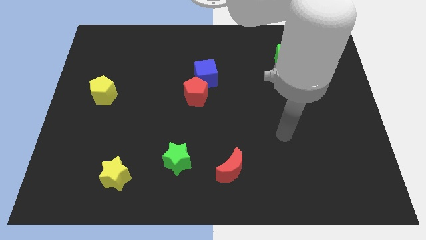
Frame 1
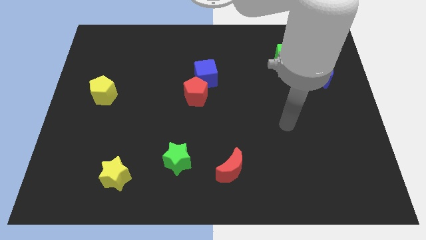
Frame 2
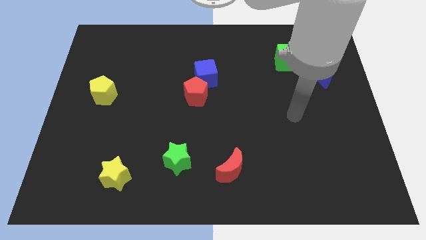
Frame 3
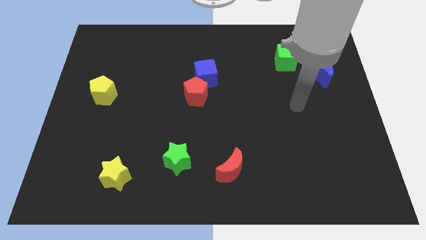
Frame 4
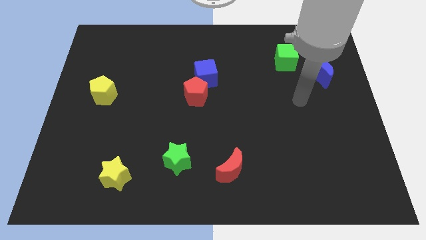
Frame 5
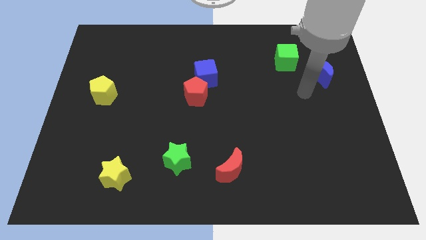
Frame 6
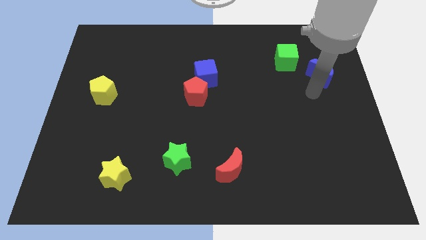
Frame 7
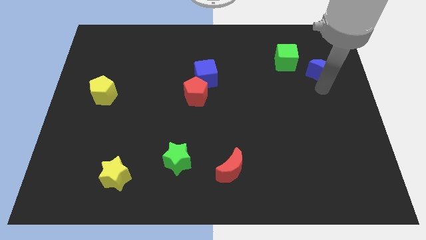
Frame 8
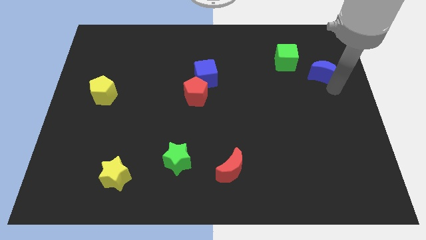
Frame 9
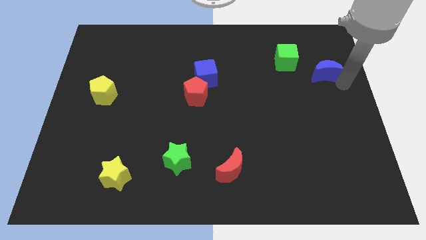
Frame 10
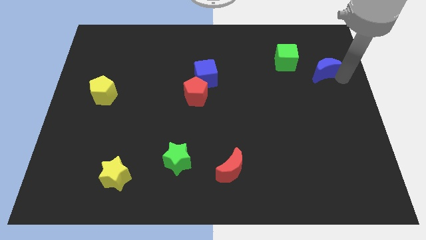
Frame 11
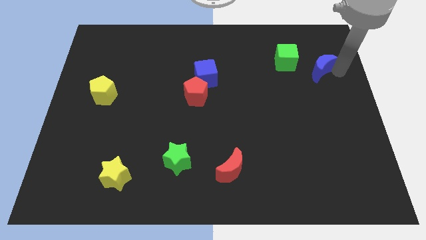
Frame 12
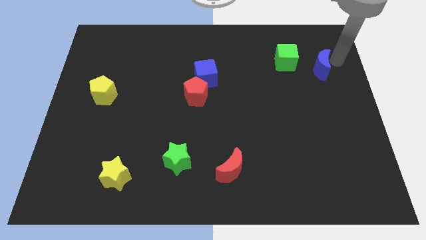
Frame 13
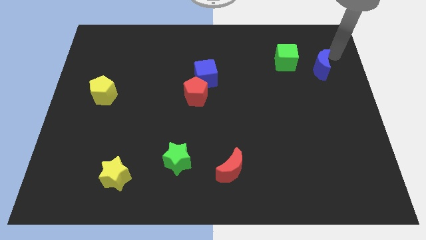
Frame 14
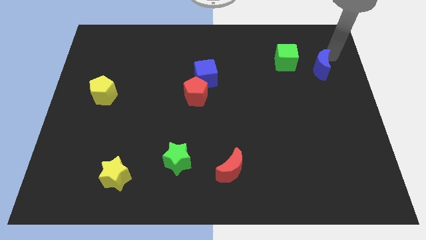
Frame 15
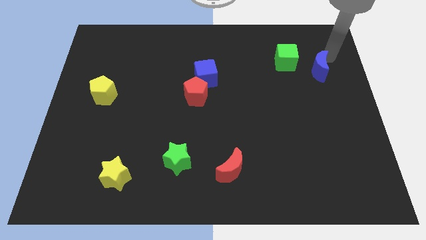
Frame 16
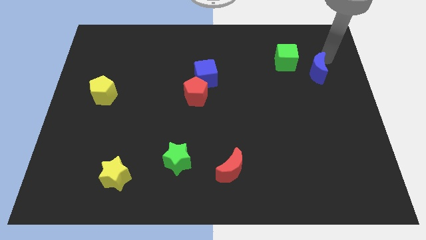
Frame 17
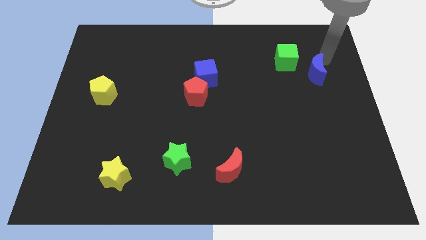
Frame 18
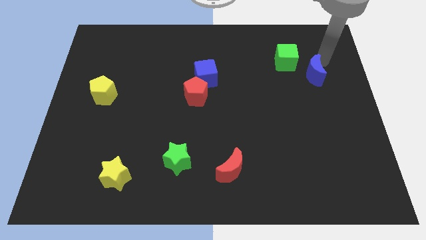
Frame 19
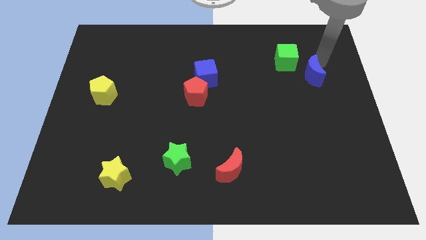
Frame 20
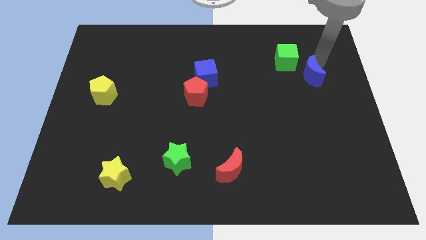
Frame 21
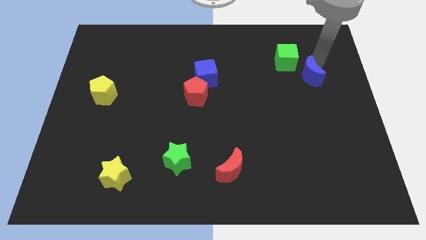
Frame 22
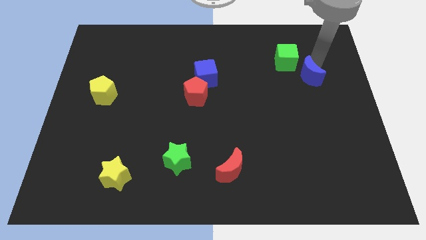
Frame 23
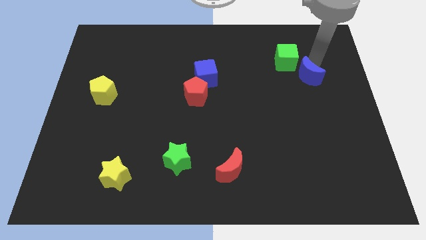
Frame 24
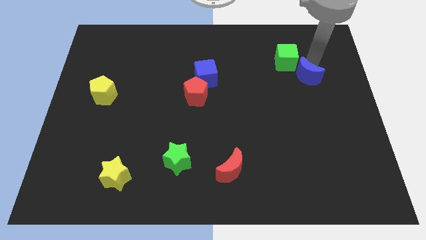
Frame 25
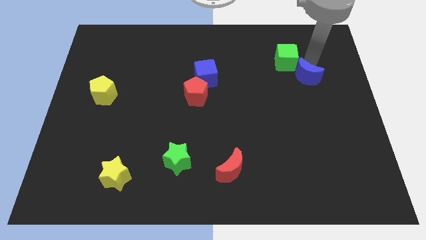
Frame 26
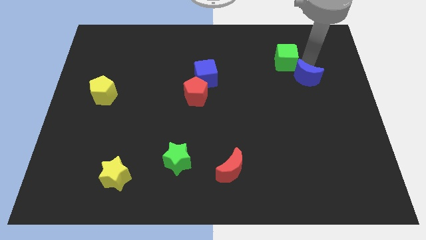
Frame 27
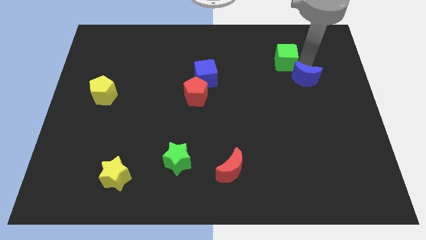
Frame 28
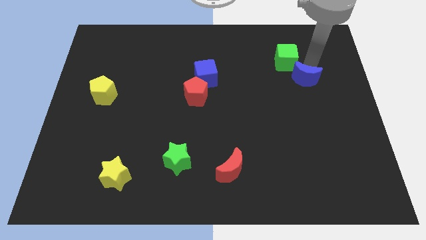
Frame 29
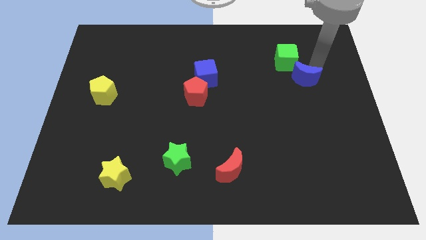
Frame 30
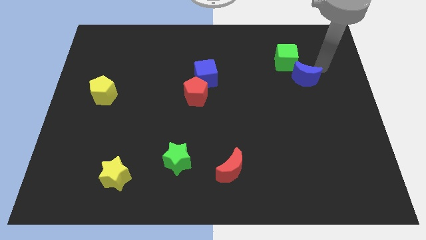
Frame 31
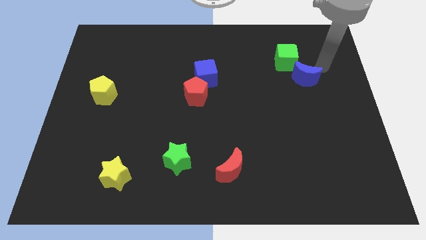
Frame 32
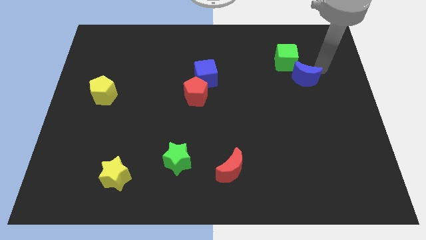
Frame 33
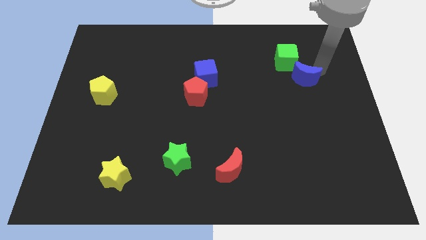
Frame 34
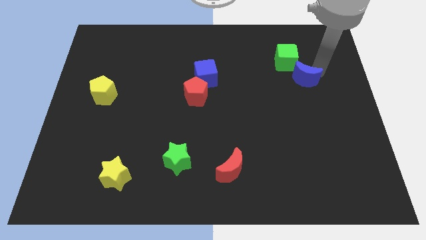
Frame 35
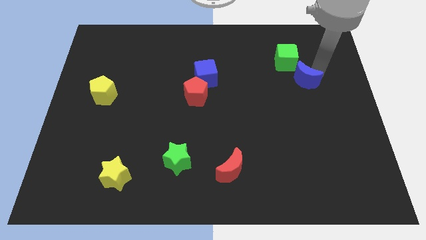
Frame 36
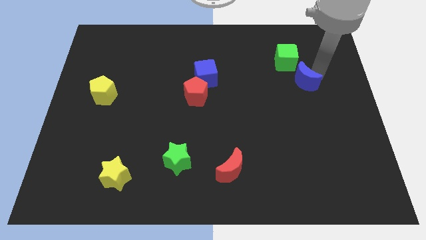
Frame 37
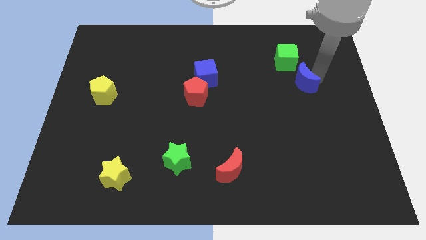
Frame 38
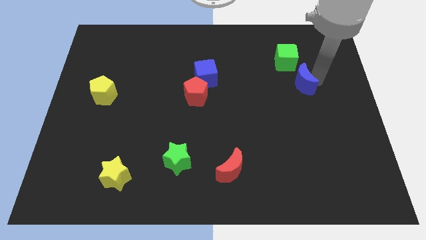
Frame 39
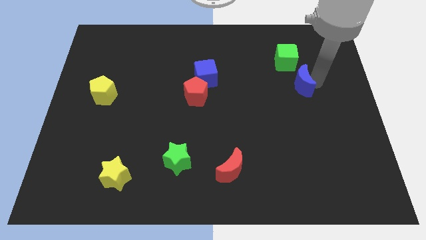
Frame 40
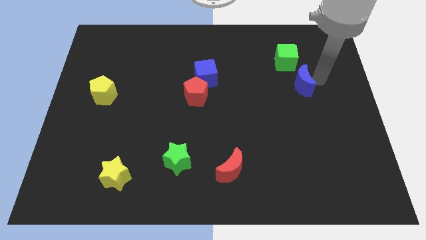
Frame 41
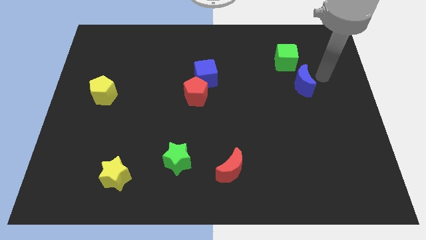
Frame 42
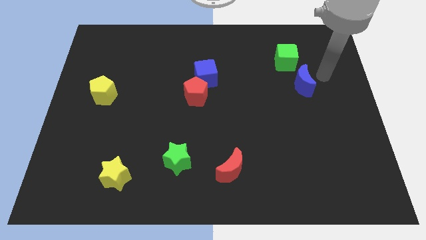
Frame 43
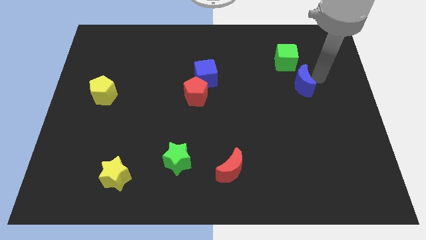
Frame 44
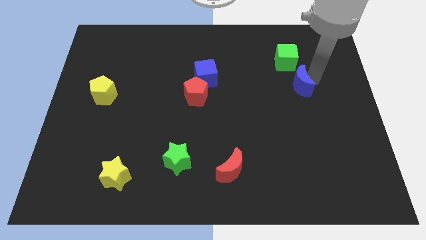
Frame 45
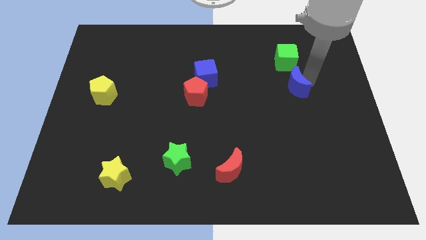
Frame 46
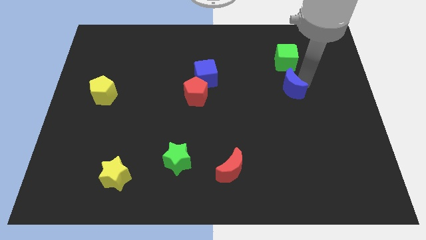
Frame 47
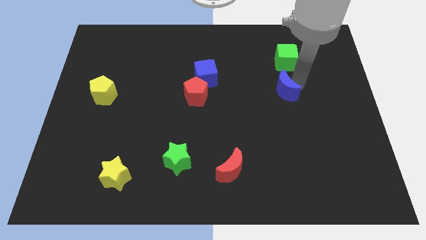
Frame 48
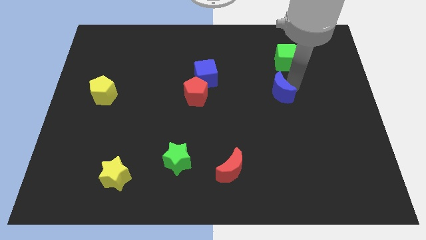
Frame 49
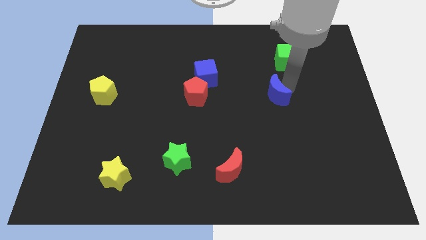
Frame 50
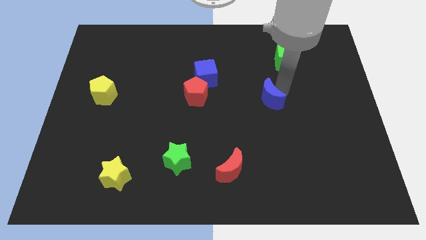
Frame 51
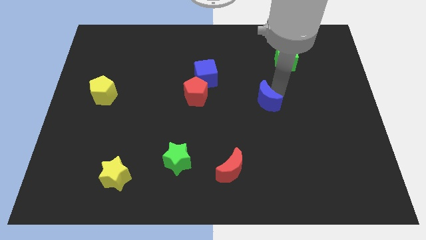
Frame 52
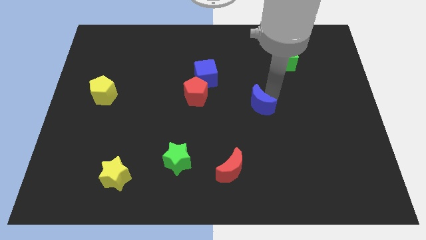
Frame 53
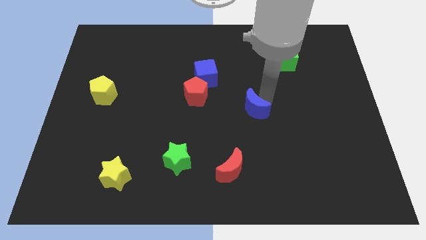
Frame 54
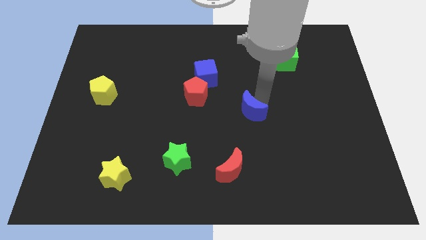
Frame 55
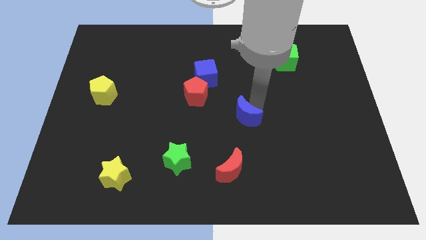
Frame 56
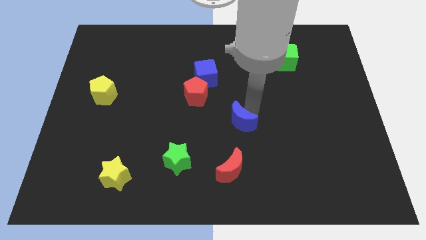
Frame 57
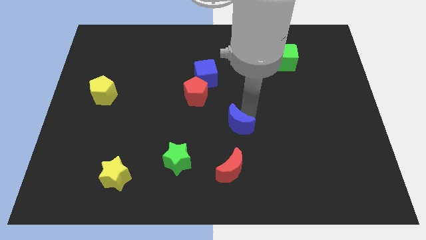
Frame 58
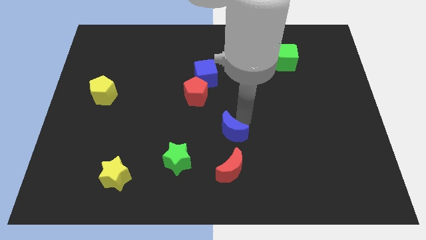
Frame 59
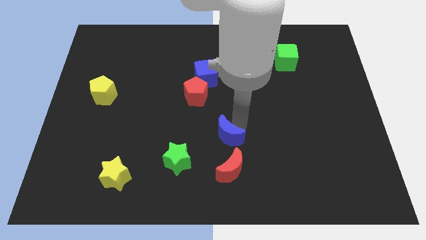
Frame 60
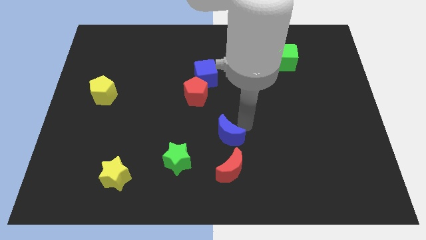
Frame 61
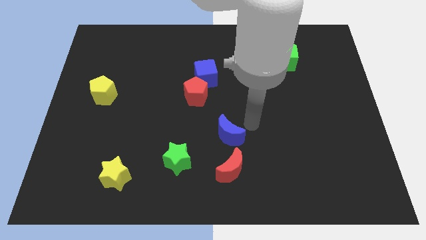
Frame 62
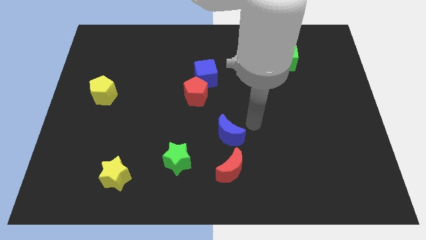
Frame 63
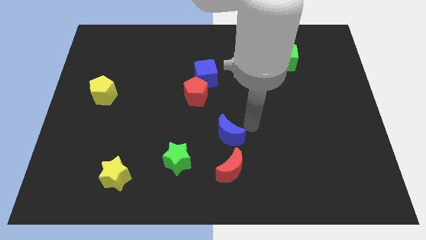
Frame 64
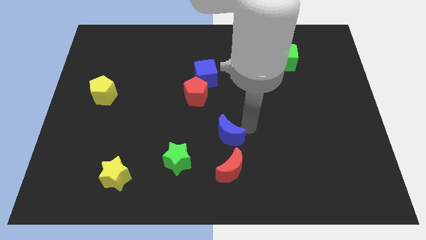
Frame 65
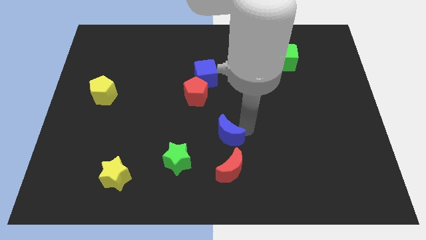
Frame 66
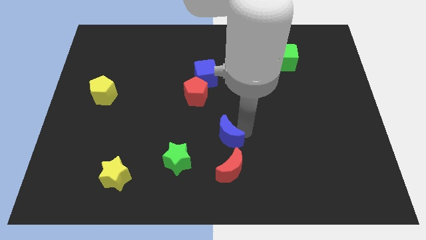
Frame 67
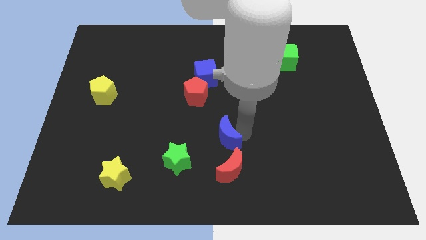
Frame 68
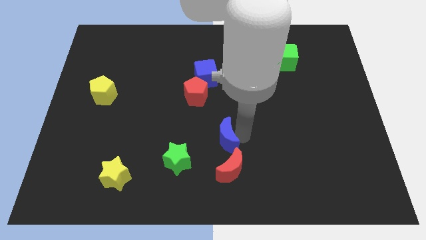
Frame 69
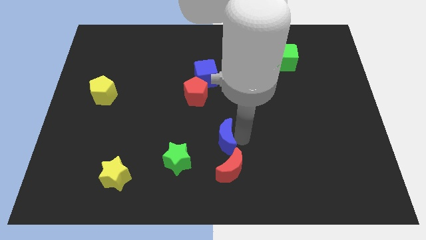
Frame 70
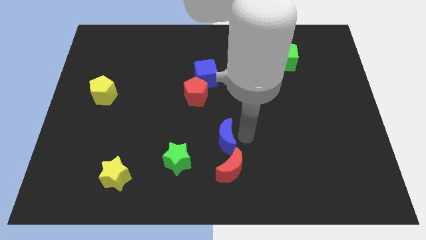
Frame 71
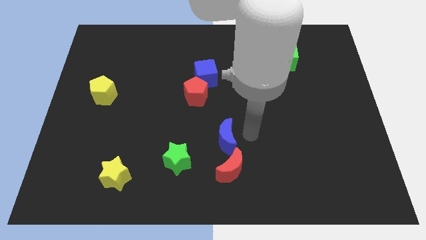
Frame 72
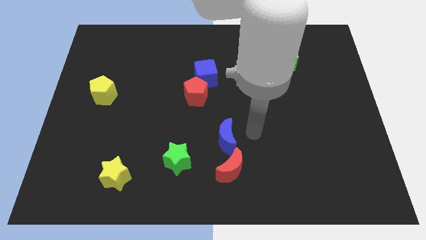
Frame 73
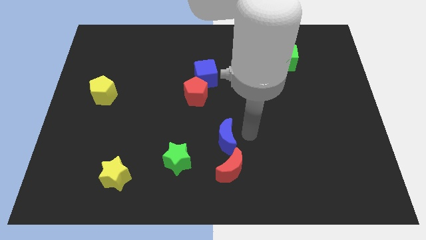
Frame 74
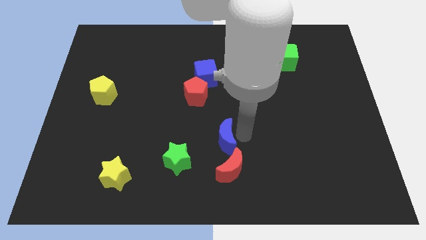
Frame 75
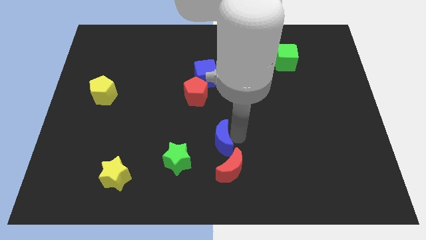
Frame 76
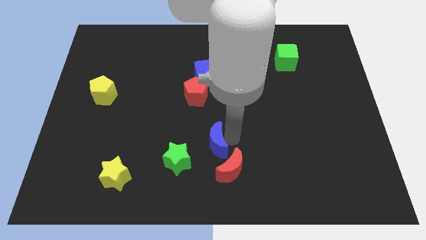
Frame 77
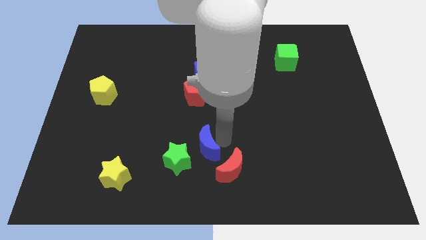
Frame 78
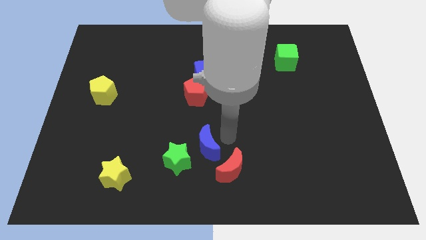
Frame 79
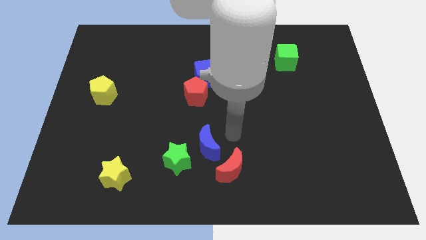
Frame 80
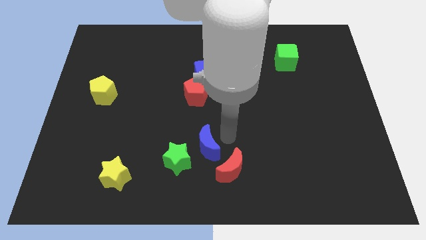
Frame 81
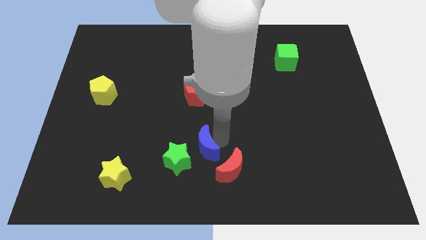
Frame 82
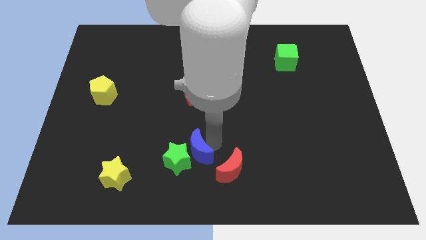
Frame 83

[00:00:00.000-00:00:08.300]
put the blue moon towards the green star
